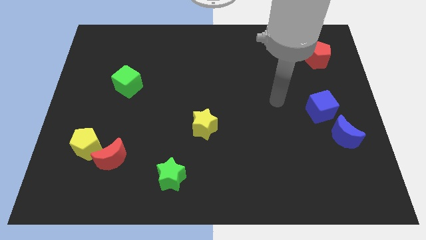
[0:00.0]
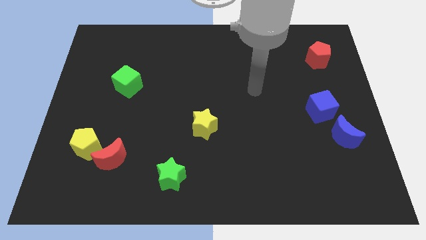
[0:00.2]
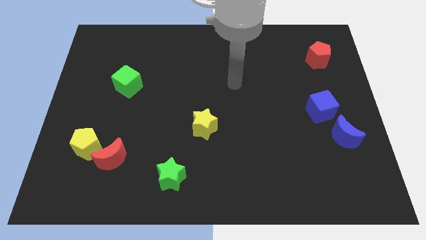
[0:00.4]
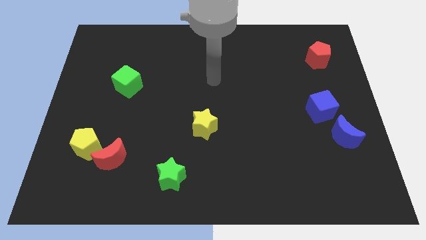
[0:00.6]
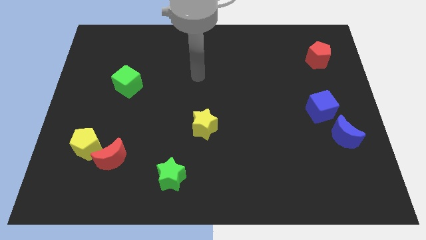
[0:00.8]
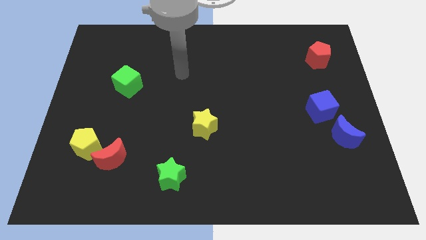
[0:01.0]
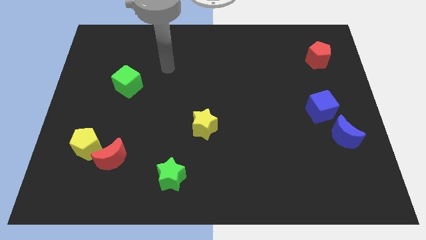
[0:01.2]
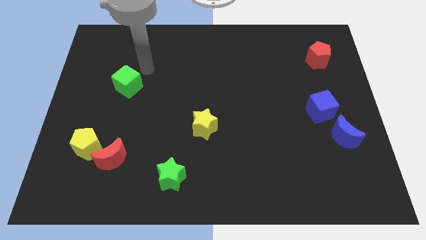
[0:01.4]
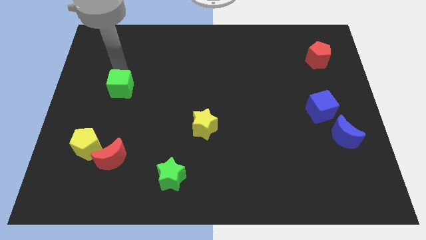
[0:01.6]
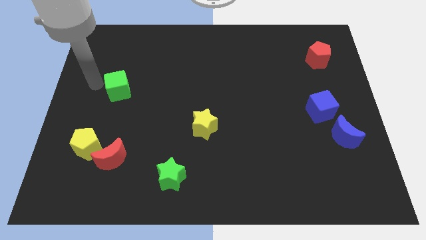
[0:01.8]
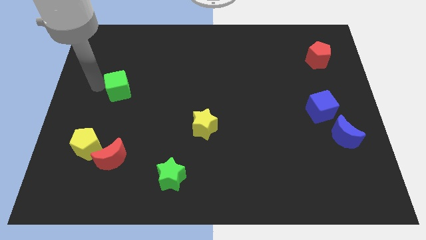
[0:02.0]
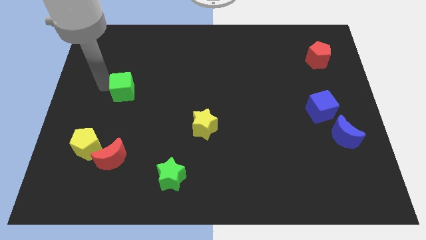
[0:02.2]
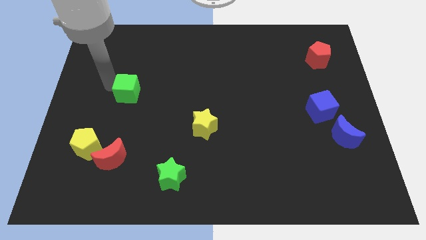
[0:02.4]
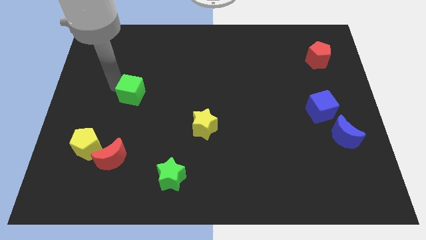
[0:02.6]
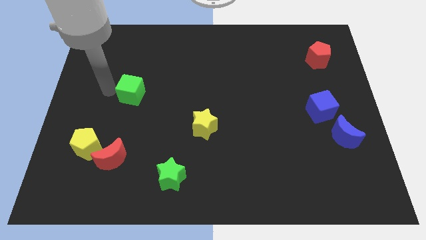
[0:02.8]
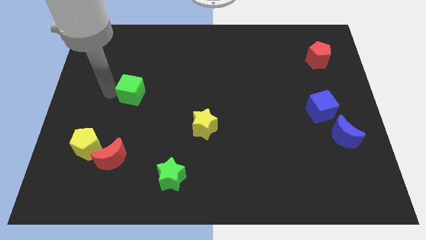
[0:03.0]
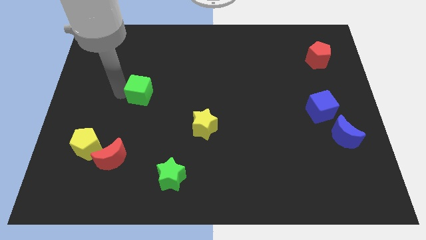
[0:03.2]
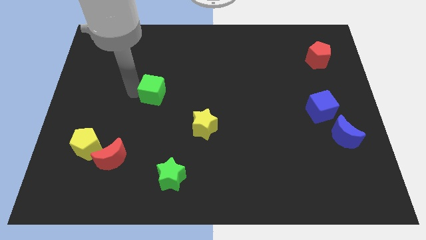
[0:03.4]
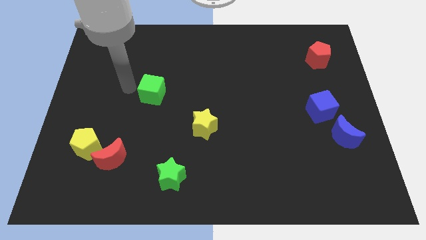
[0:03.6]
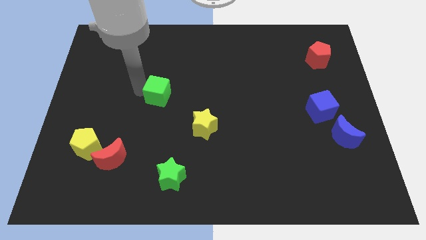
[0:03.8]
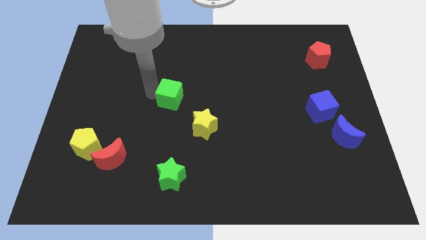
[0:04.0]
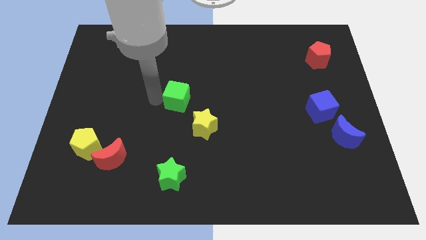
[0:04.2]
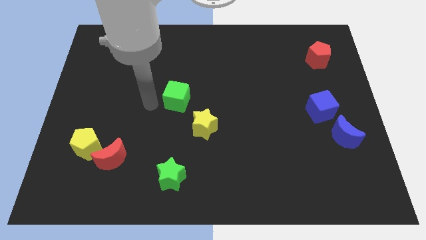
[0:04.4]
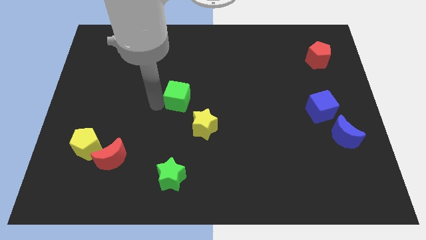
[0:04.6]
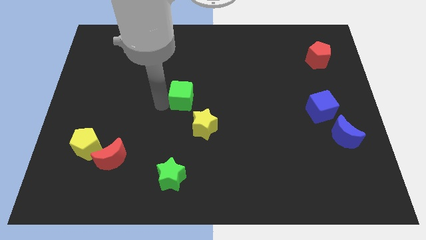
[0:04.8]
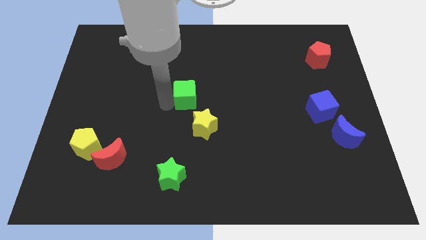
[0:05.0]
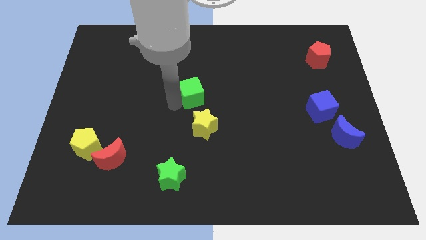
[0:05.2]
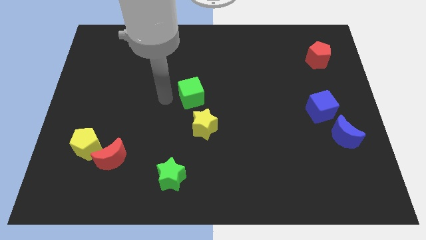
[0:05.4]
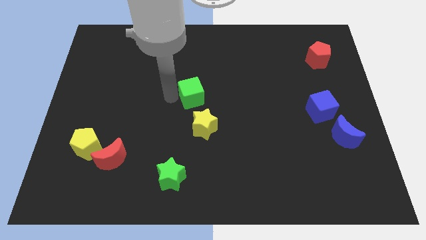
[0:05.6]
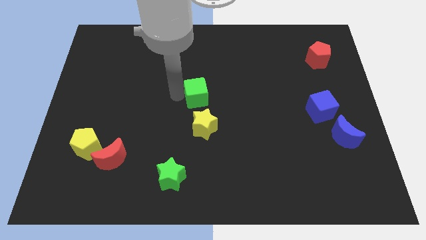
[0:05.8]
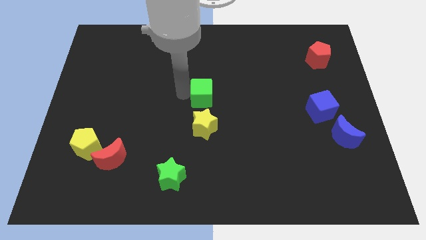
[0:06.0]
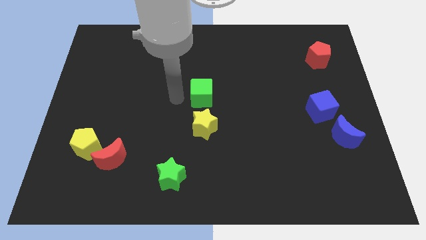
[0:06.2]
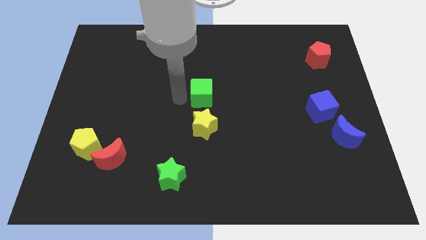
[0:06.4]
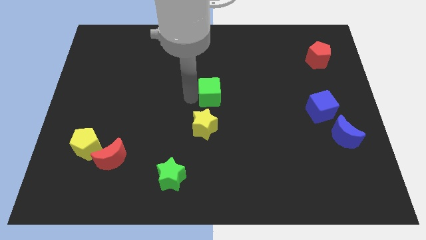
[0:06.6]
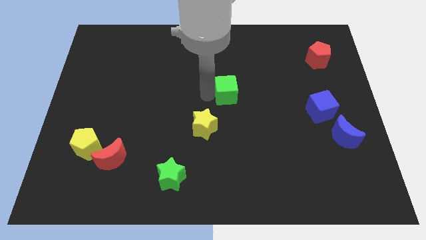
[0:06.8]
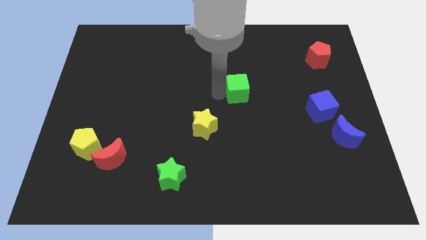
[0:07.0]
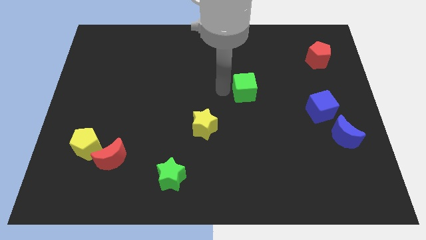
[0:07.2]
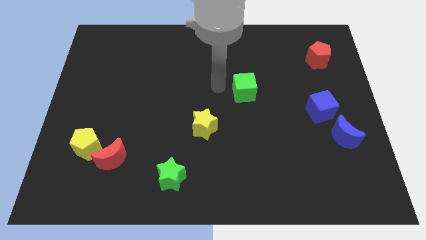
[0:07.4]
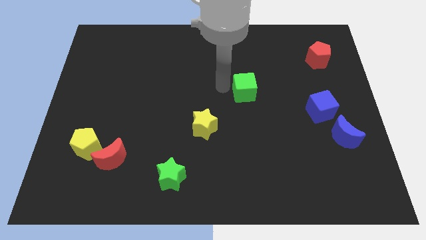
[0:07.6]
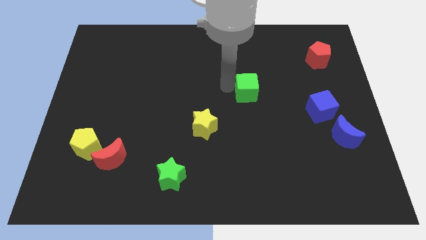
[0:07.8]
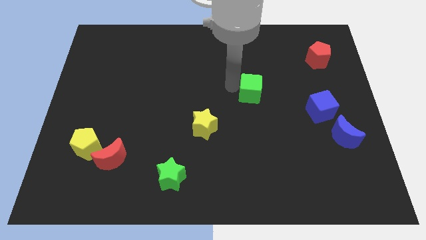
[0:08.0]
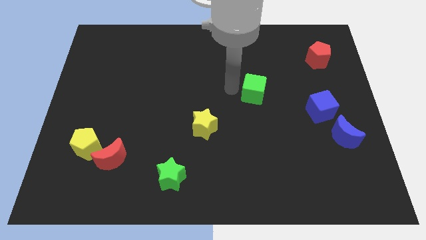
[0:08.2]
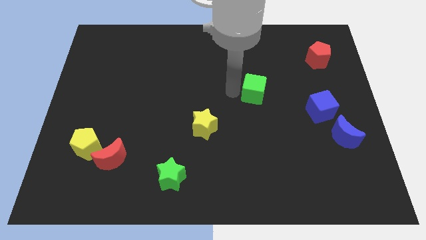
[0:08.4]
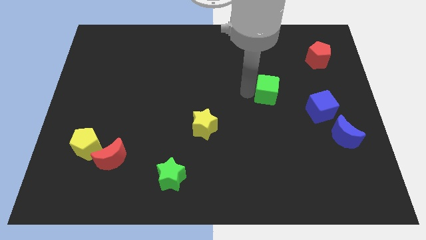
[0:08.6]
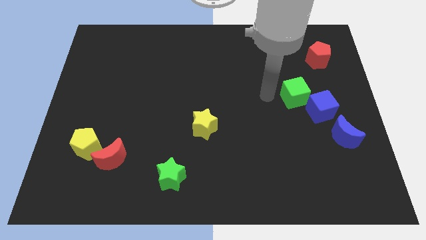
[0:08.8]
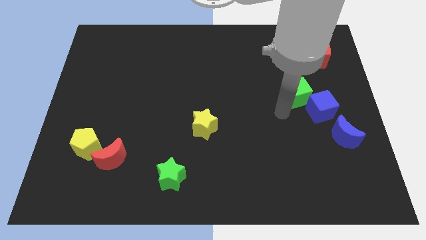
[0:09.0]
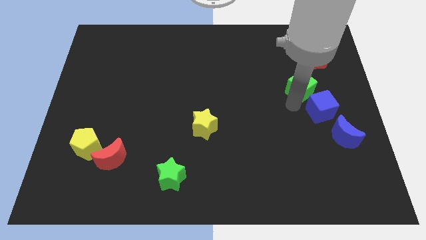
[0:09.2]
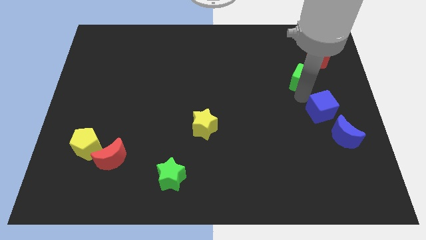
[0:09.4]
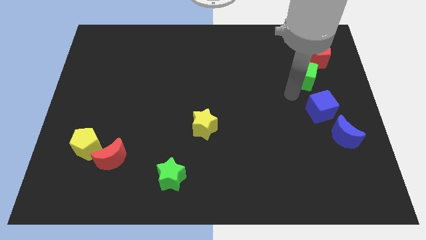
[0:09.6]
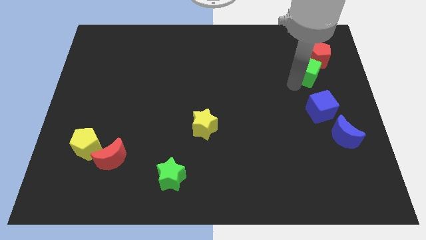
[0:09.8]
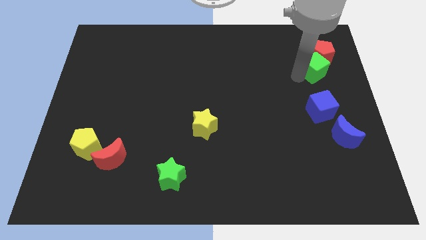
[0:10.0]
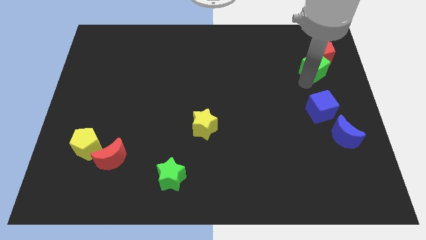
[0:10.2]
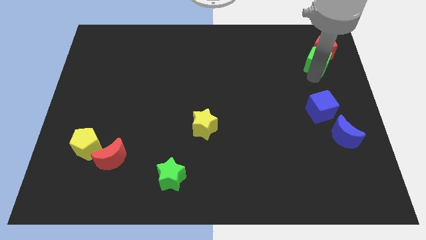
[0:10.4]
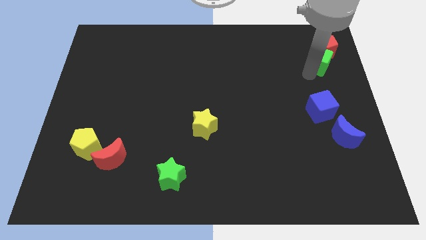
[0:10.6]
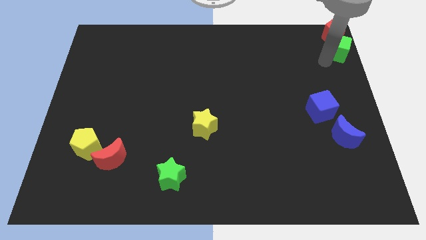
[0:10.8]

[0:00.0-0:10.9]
put the green cube to the top right of the board

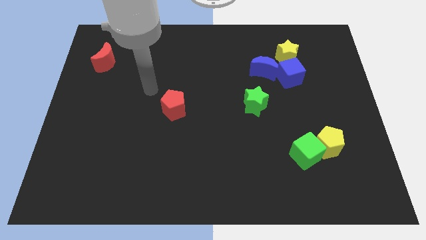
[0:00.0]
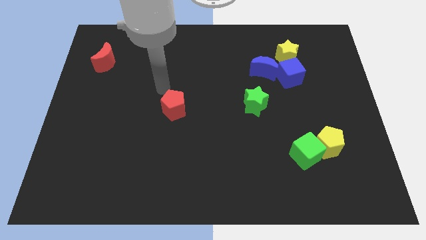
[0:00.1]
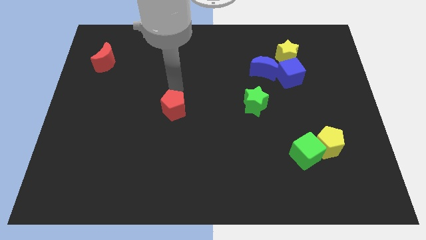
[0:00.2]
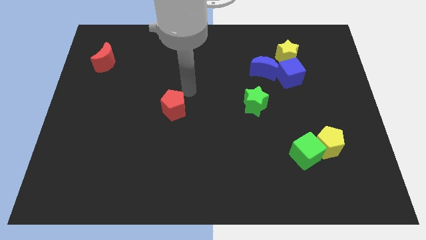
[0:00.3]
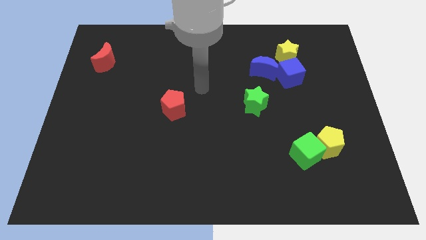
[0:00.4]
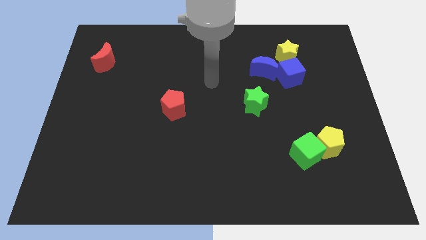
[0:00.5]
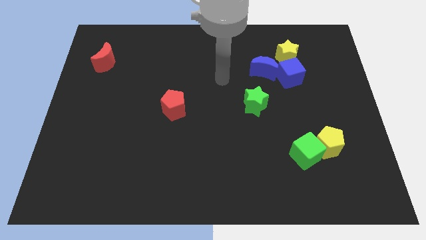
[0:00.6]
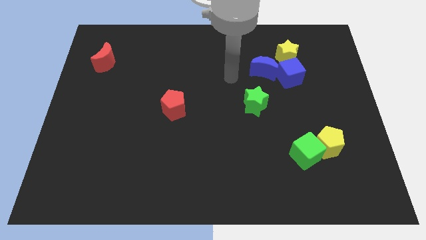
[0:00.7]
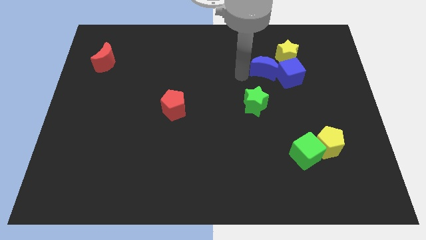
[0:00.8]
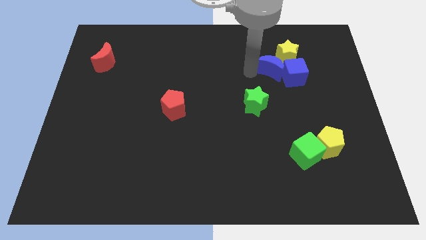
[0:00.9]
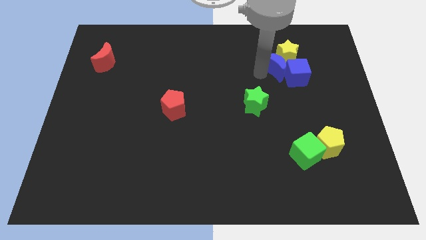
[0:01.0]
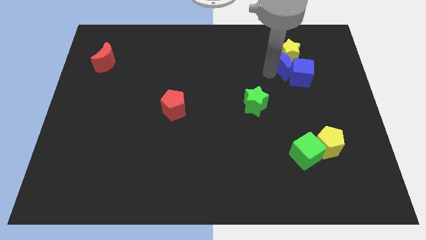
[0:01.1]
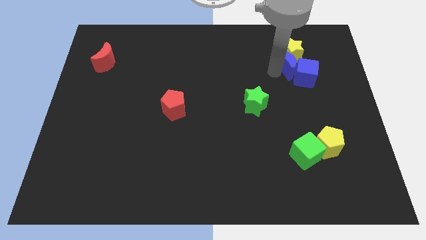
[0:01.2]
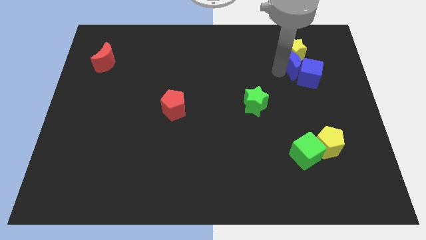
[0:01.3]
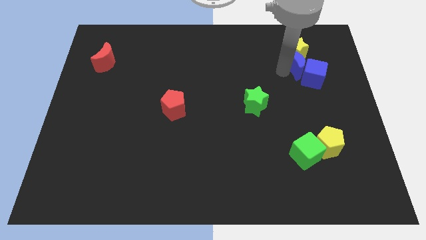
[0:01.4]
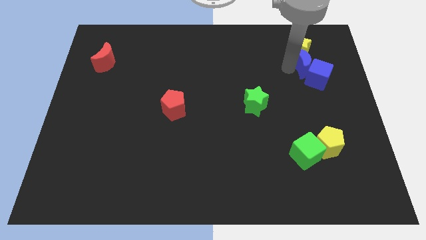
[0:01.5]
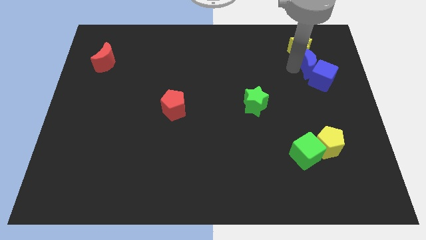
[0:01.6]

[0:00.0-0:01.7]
push the blue cube to the right side
